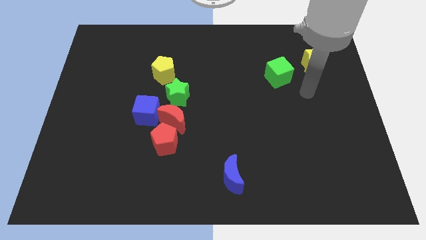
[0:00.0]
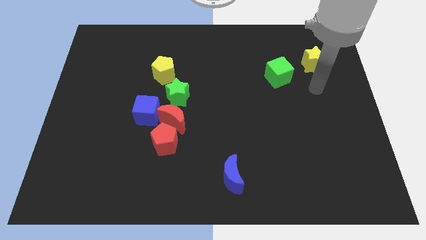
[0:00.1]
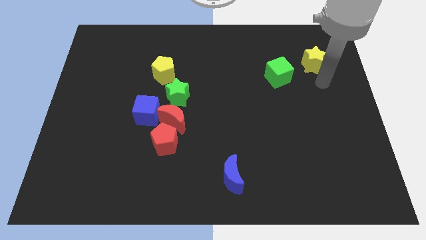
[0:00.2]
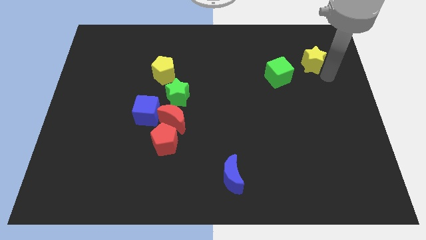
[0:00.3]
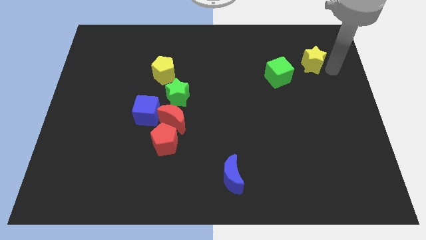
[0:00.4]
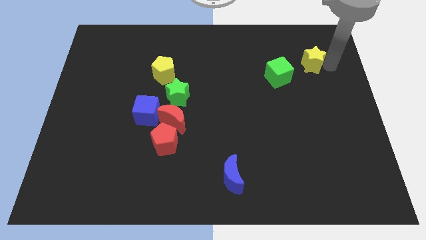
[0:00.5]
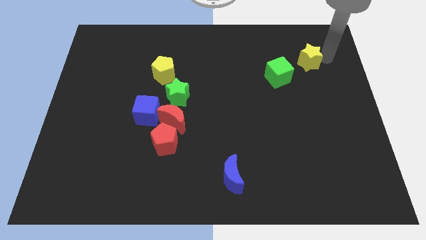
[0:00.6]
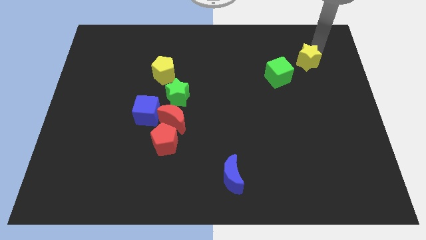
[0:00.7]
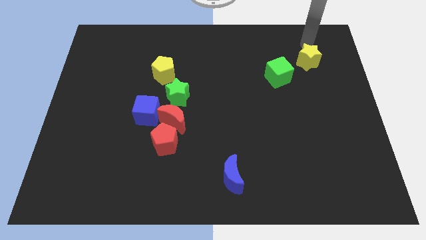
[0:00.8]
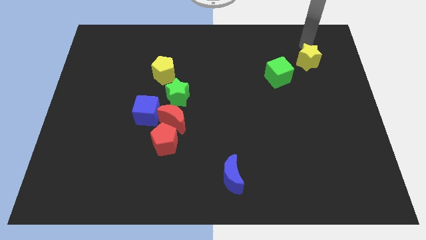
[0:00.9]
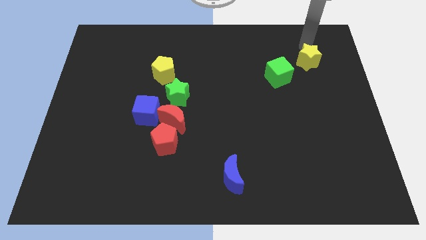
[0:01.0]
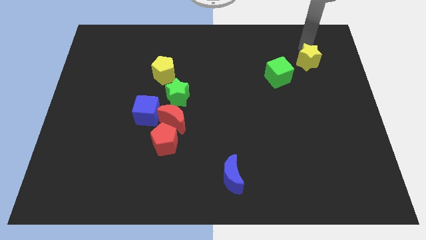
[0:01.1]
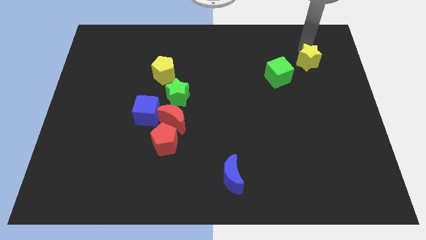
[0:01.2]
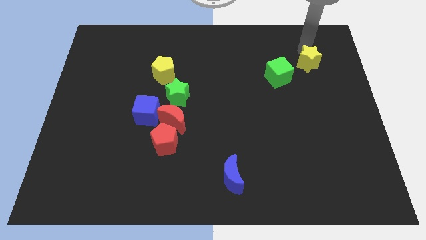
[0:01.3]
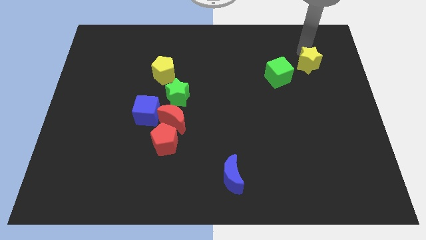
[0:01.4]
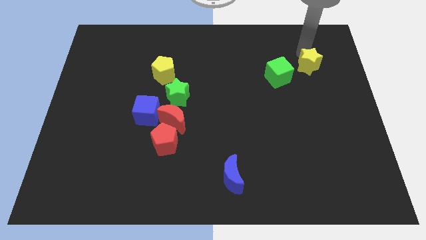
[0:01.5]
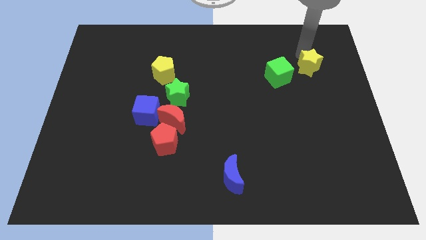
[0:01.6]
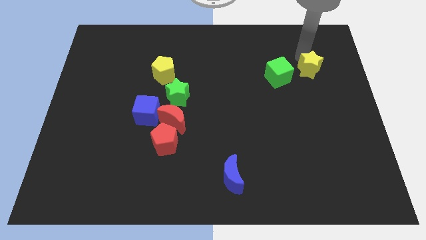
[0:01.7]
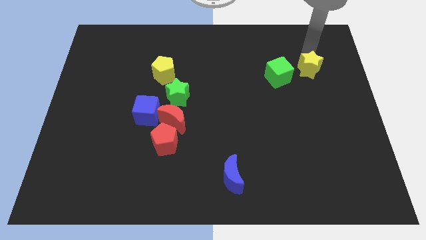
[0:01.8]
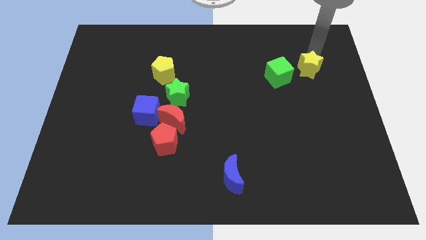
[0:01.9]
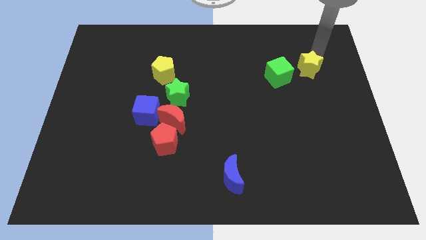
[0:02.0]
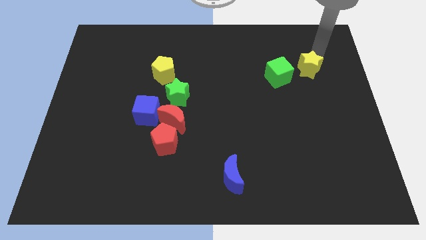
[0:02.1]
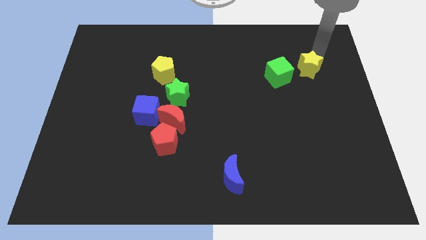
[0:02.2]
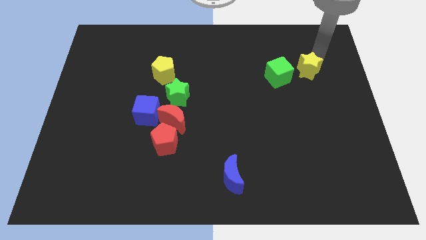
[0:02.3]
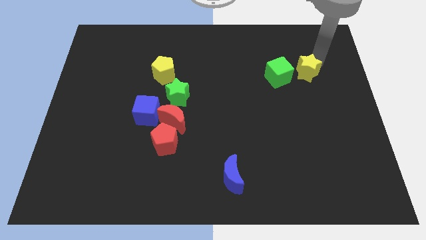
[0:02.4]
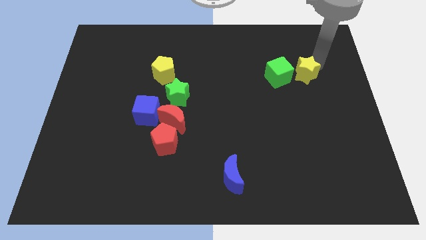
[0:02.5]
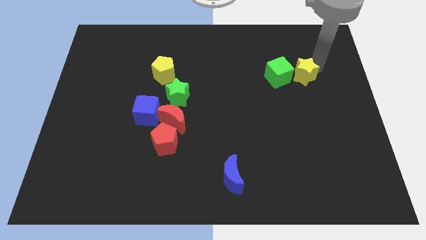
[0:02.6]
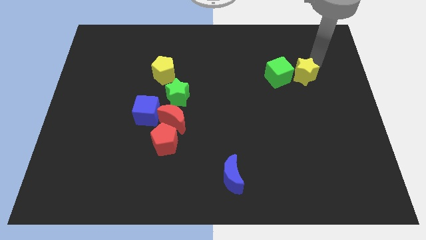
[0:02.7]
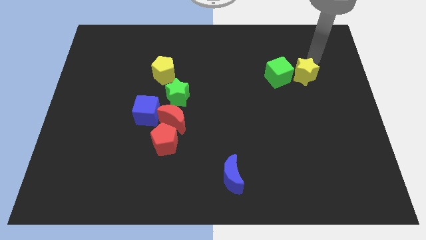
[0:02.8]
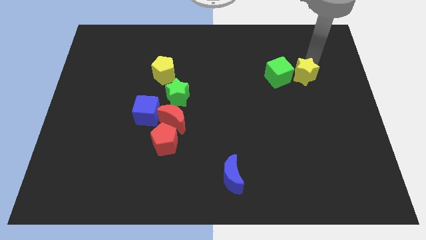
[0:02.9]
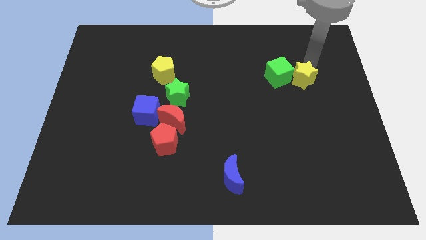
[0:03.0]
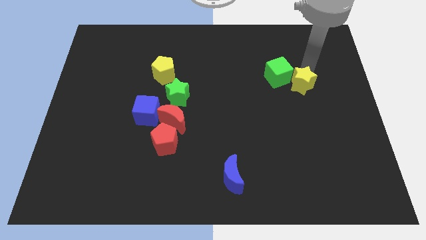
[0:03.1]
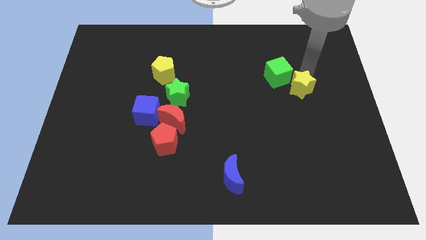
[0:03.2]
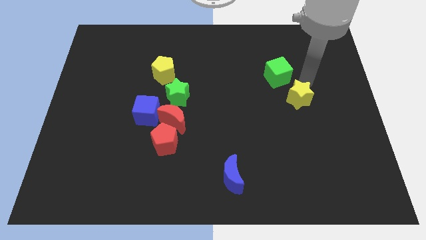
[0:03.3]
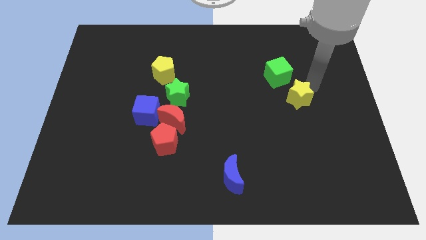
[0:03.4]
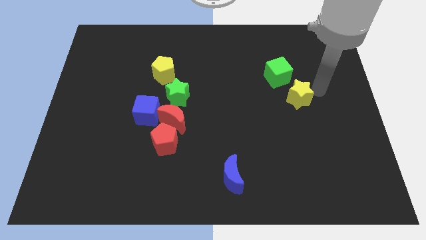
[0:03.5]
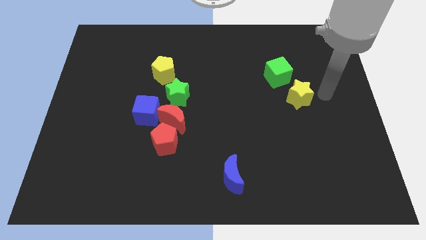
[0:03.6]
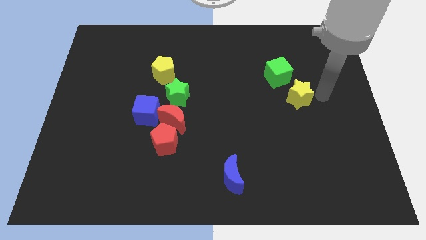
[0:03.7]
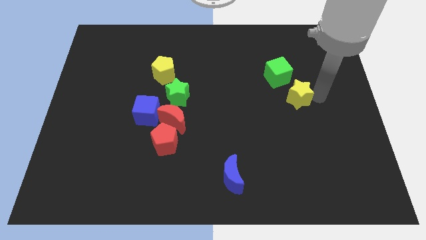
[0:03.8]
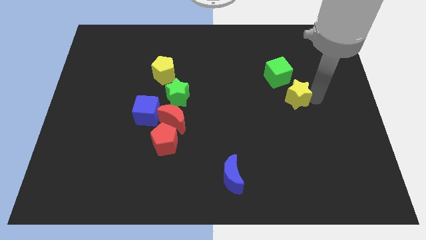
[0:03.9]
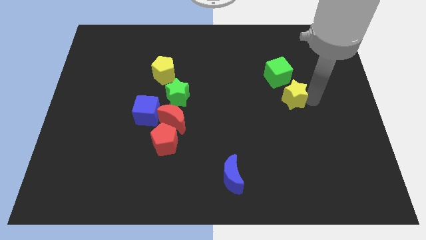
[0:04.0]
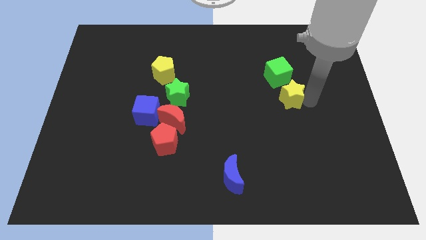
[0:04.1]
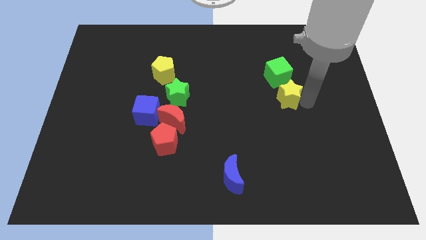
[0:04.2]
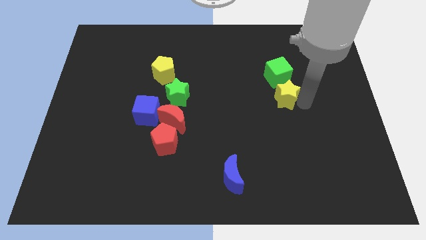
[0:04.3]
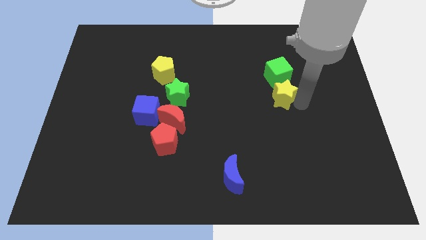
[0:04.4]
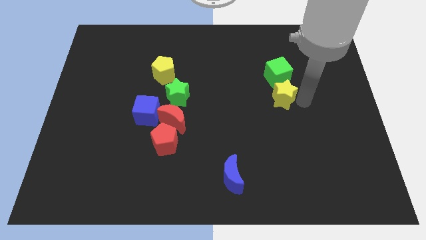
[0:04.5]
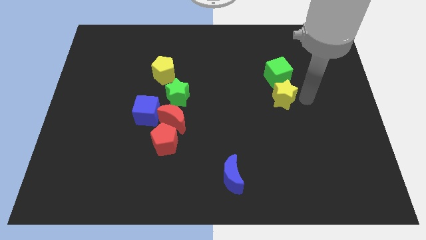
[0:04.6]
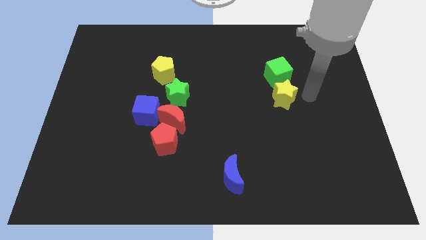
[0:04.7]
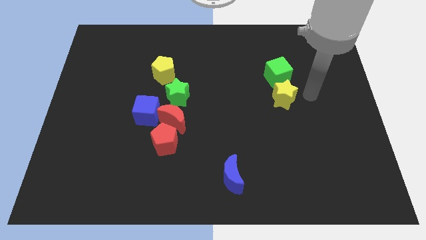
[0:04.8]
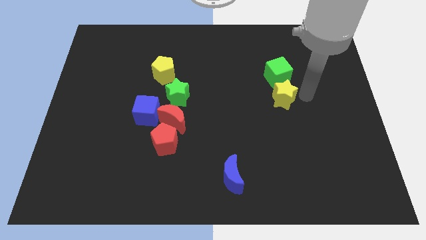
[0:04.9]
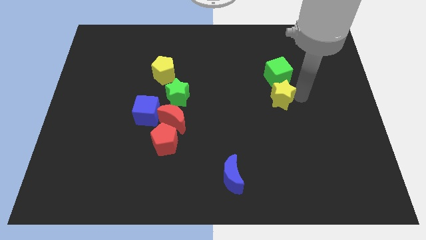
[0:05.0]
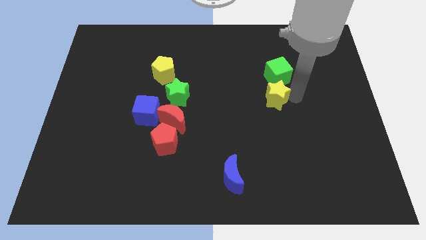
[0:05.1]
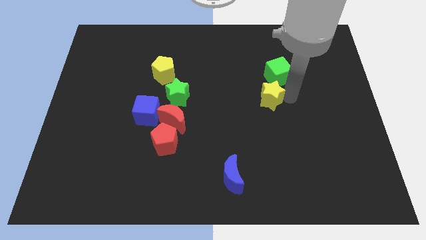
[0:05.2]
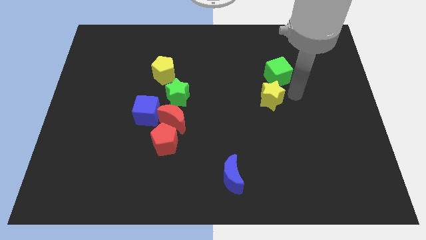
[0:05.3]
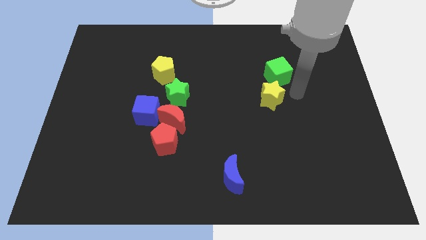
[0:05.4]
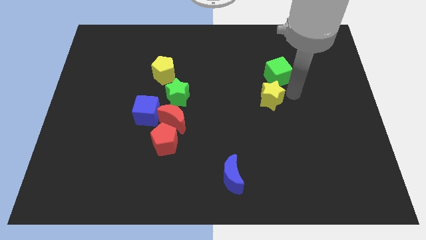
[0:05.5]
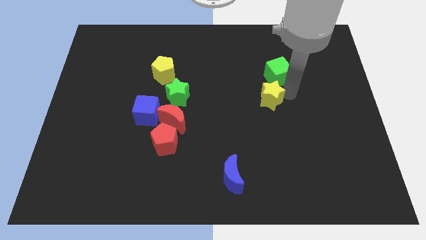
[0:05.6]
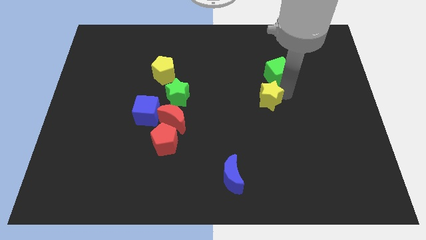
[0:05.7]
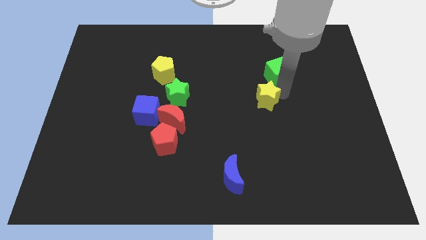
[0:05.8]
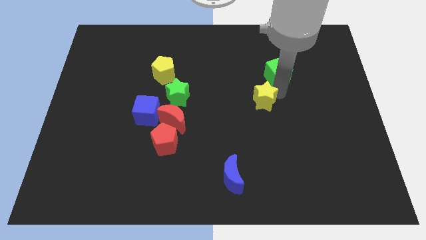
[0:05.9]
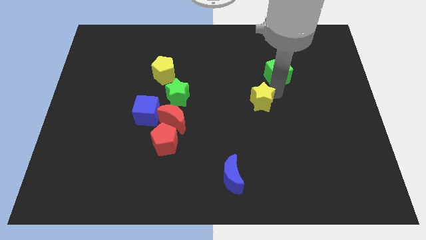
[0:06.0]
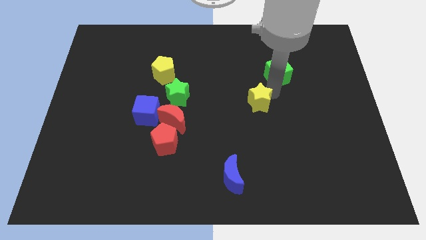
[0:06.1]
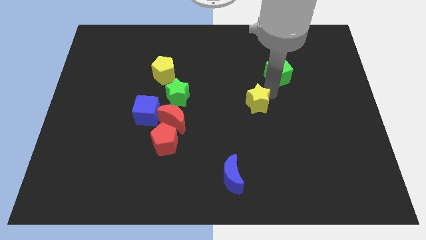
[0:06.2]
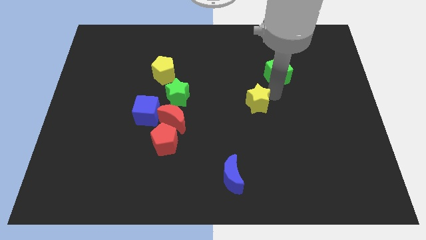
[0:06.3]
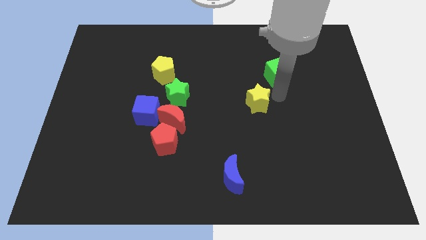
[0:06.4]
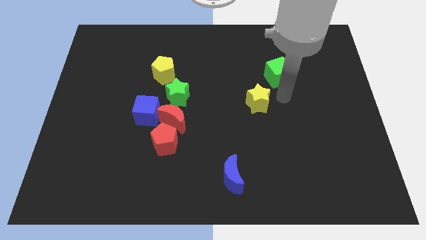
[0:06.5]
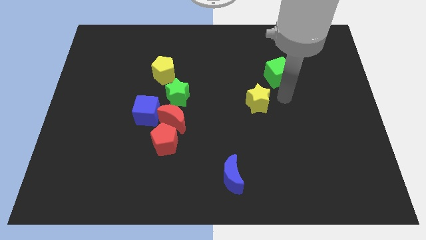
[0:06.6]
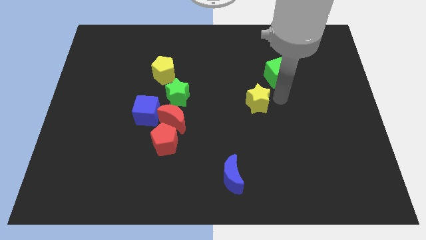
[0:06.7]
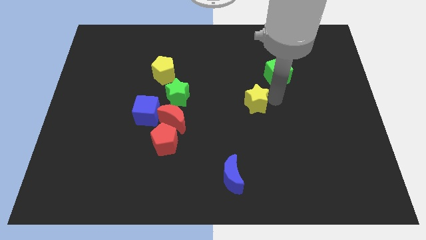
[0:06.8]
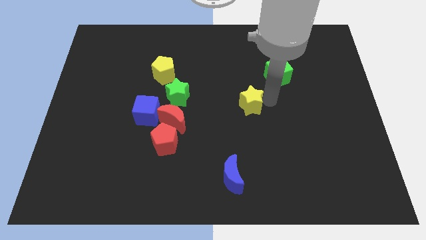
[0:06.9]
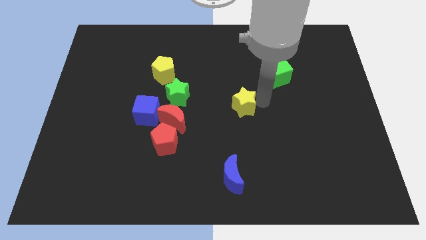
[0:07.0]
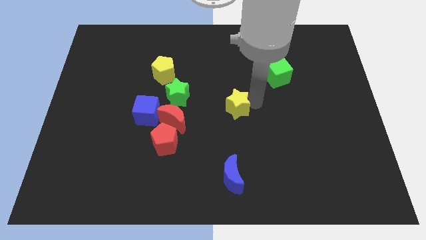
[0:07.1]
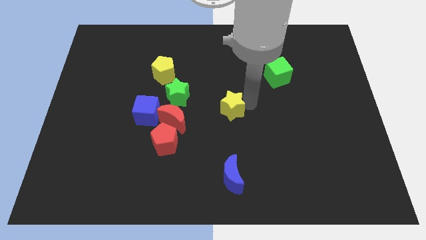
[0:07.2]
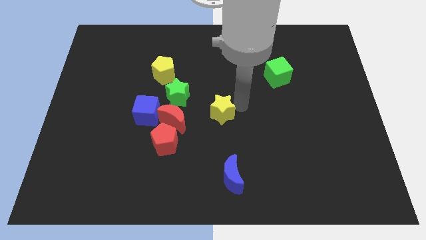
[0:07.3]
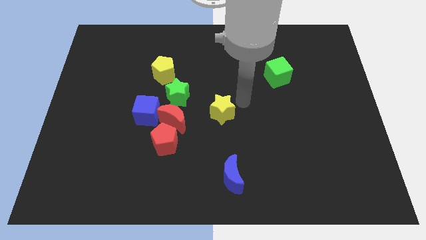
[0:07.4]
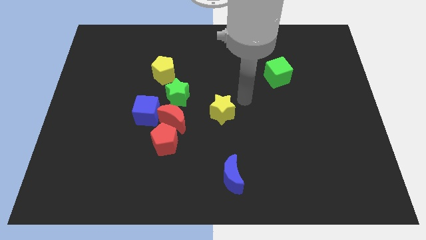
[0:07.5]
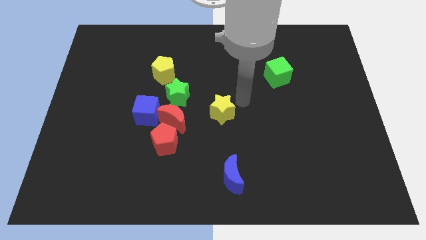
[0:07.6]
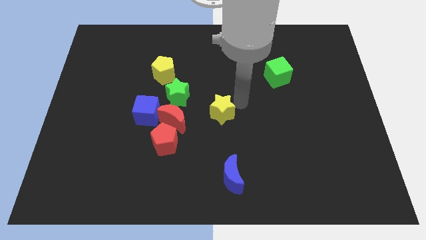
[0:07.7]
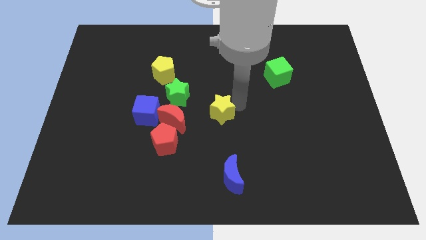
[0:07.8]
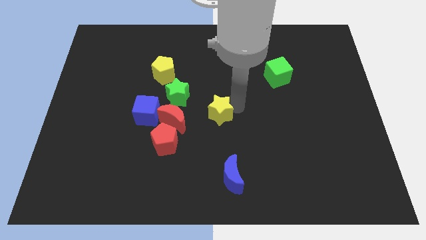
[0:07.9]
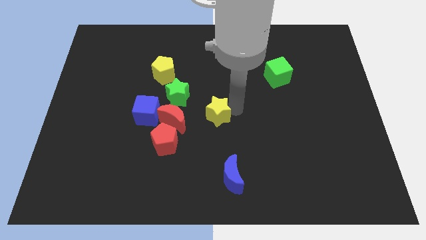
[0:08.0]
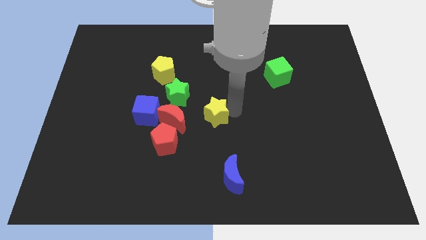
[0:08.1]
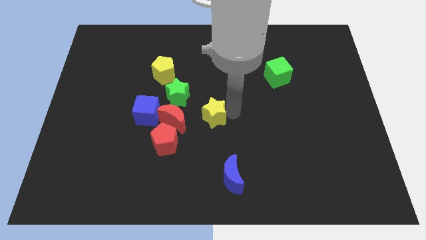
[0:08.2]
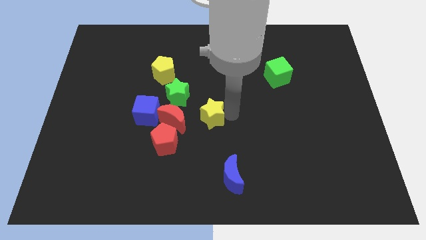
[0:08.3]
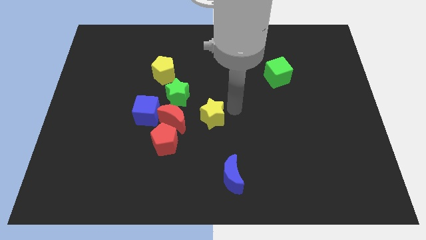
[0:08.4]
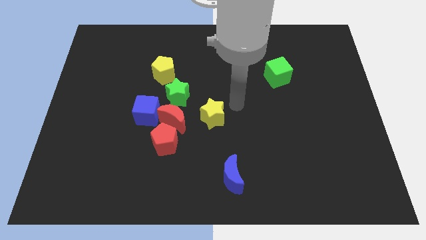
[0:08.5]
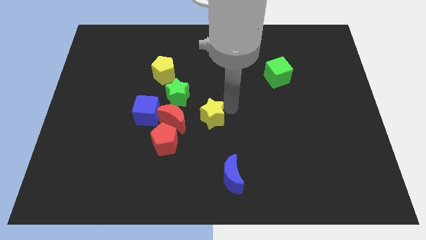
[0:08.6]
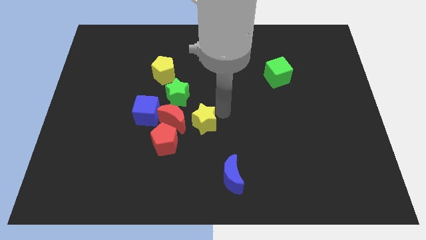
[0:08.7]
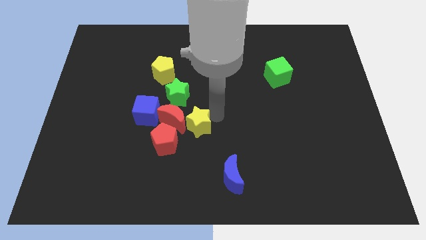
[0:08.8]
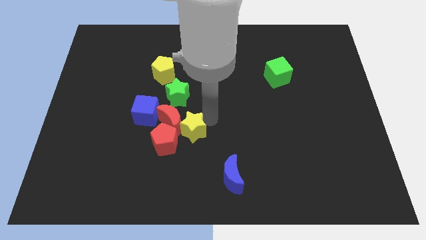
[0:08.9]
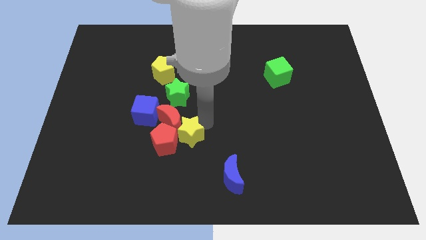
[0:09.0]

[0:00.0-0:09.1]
move the yellow star next to the red pentagon
